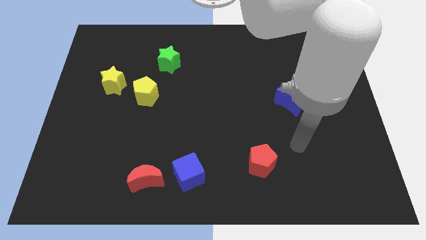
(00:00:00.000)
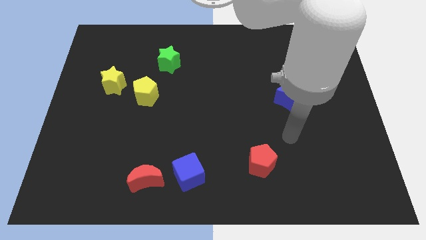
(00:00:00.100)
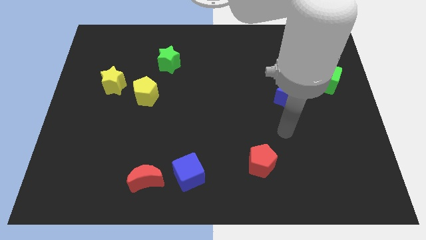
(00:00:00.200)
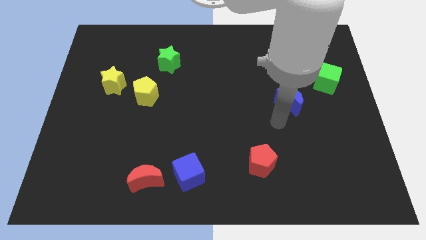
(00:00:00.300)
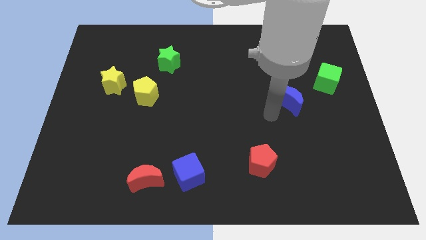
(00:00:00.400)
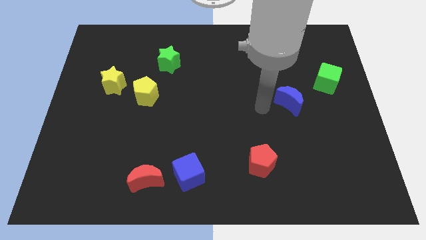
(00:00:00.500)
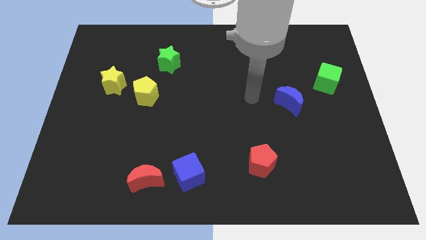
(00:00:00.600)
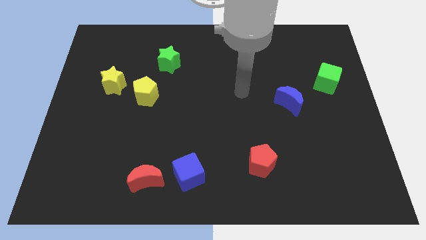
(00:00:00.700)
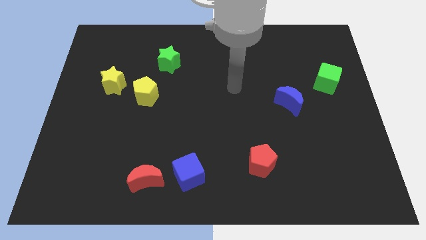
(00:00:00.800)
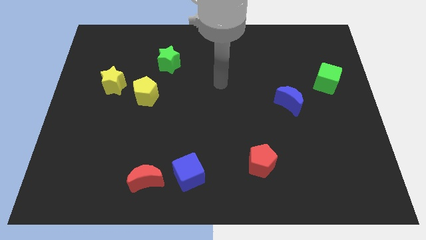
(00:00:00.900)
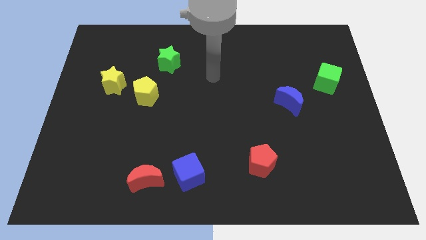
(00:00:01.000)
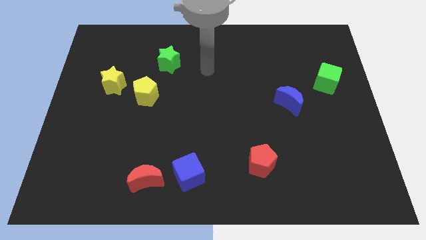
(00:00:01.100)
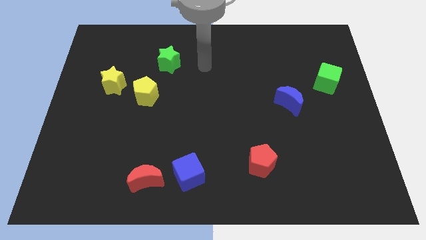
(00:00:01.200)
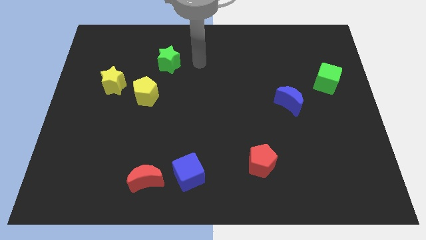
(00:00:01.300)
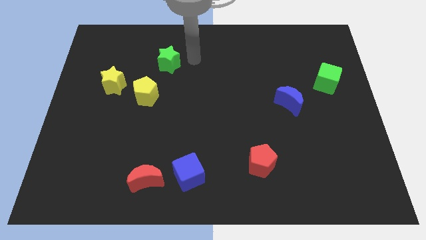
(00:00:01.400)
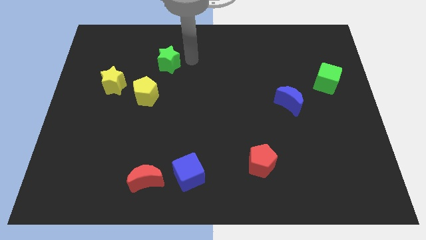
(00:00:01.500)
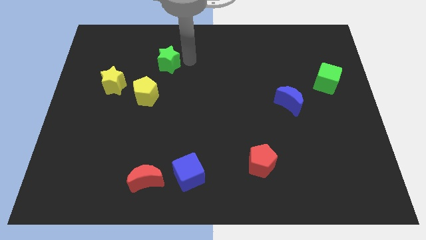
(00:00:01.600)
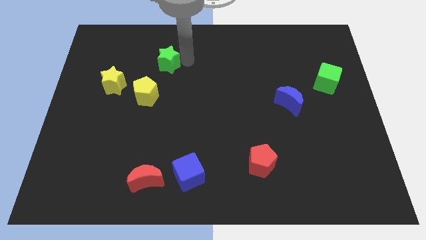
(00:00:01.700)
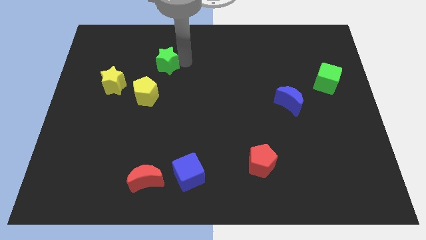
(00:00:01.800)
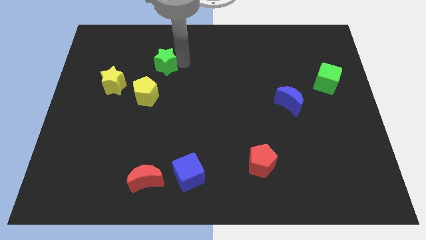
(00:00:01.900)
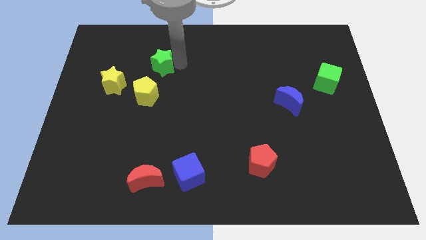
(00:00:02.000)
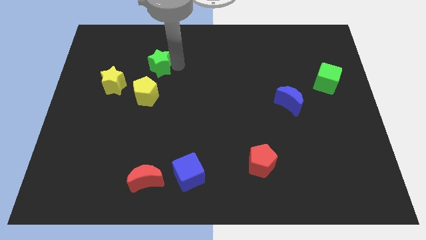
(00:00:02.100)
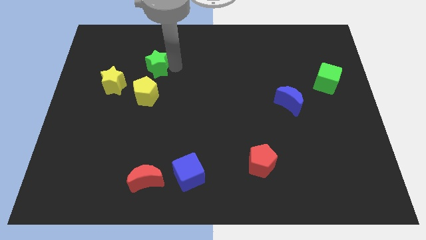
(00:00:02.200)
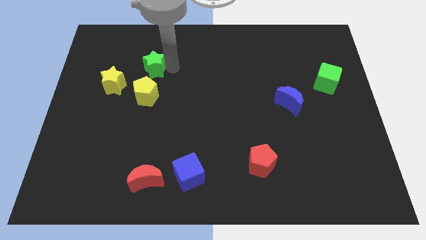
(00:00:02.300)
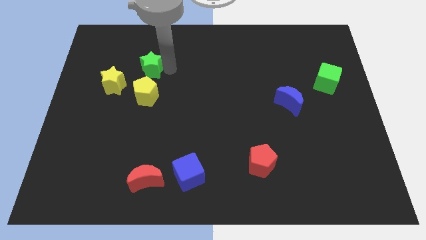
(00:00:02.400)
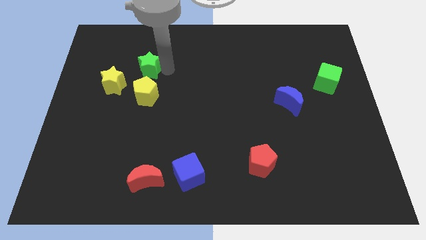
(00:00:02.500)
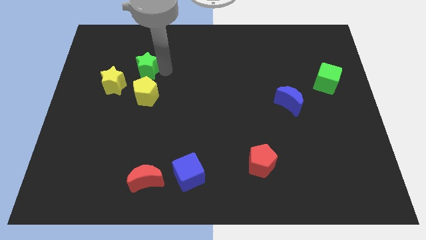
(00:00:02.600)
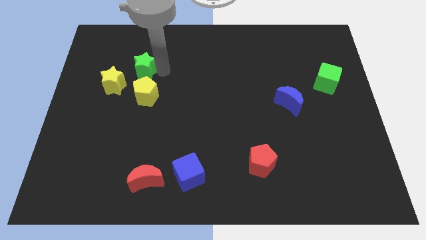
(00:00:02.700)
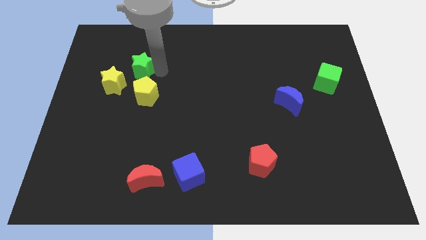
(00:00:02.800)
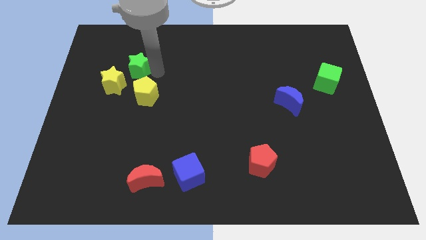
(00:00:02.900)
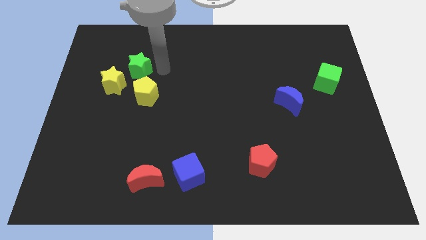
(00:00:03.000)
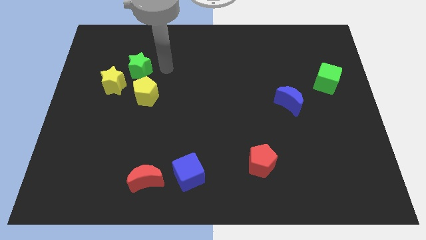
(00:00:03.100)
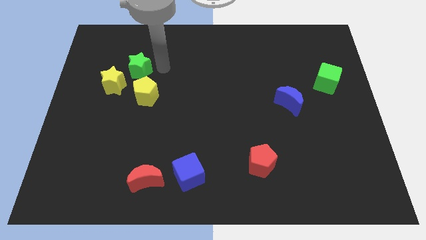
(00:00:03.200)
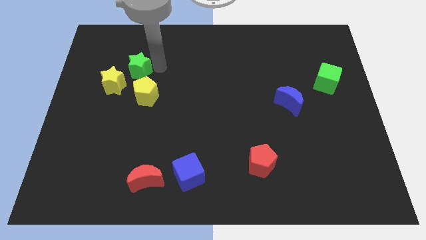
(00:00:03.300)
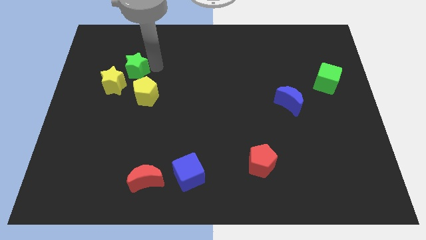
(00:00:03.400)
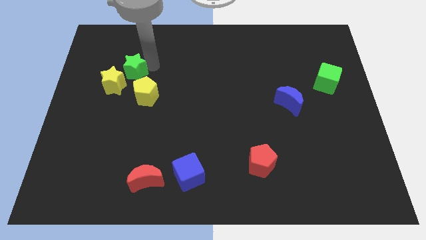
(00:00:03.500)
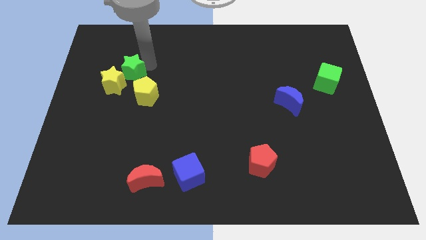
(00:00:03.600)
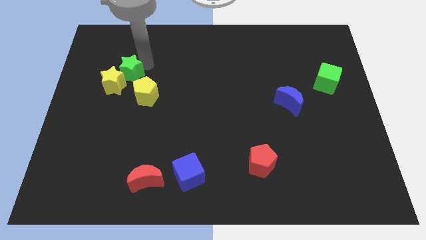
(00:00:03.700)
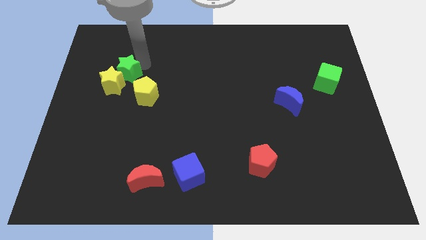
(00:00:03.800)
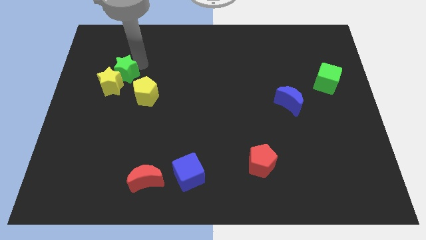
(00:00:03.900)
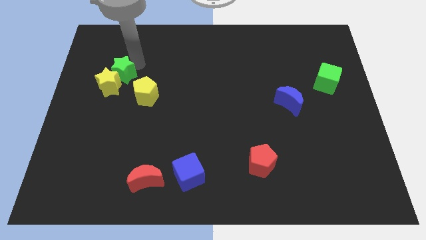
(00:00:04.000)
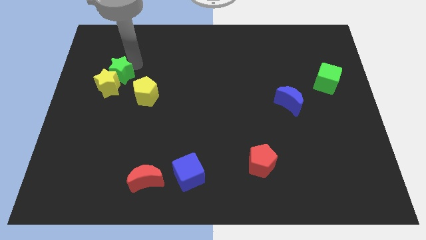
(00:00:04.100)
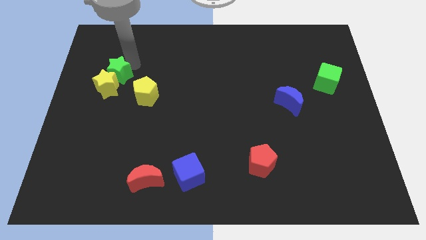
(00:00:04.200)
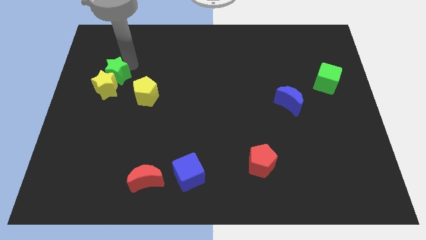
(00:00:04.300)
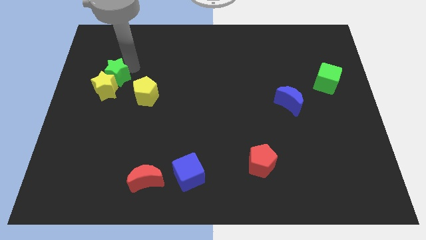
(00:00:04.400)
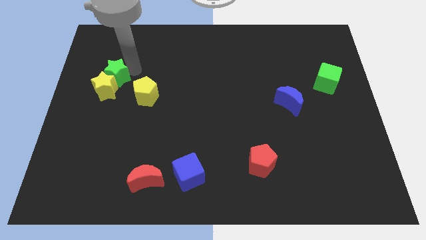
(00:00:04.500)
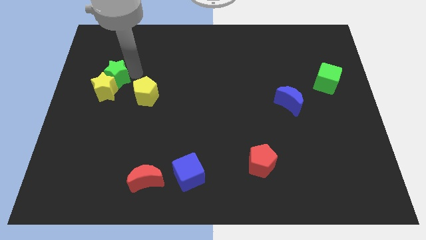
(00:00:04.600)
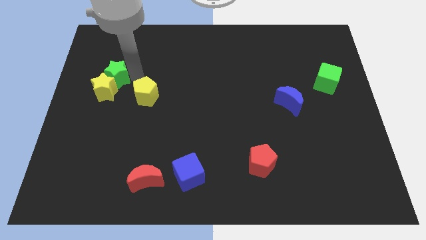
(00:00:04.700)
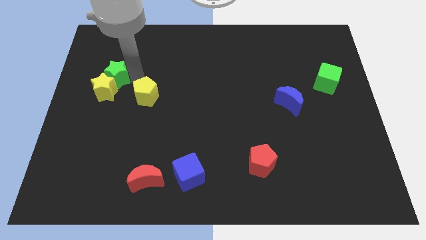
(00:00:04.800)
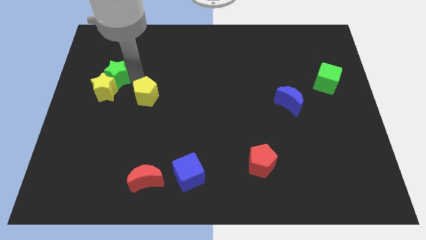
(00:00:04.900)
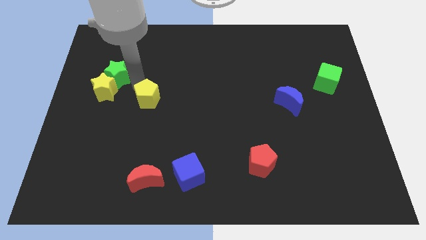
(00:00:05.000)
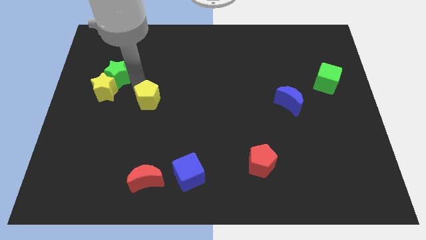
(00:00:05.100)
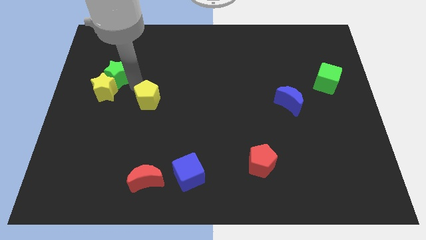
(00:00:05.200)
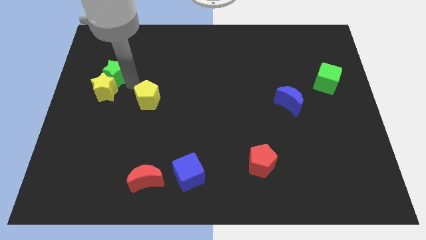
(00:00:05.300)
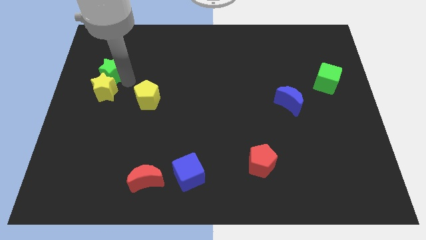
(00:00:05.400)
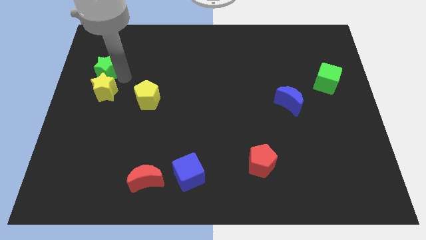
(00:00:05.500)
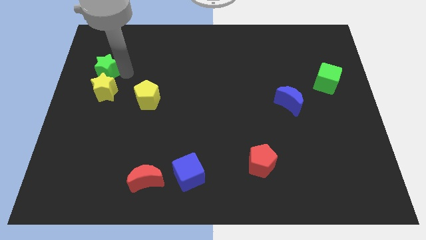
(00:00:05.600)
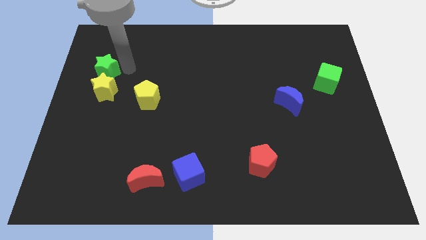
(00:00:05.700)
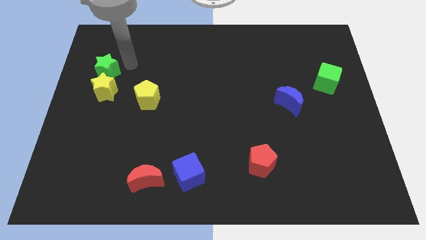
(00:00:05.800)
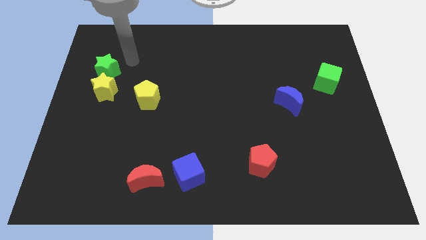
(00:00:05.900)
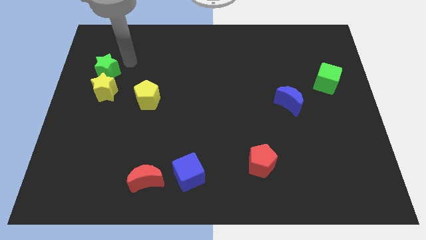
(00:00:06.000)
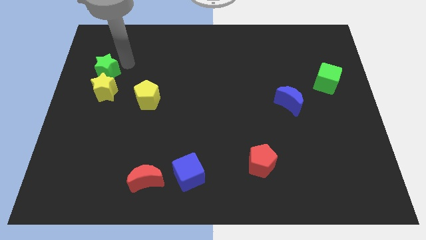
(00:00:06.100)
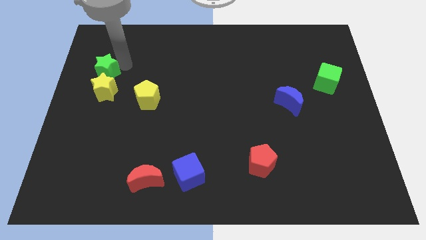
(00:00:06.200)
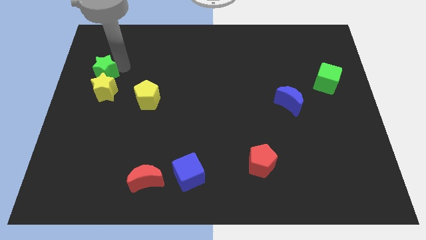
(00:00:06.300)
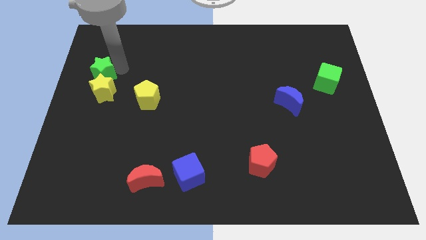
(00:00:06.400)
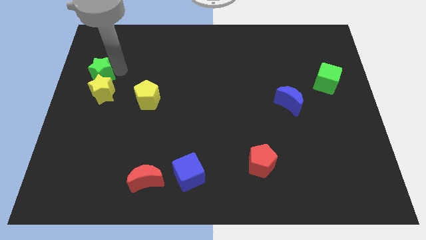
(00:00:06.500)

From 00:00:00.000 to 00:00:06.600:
slide the green star to the center left

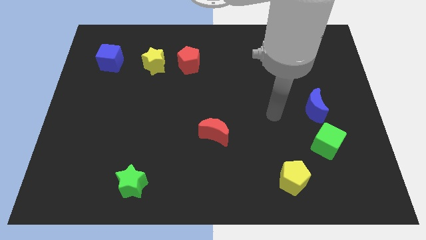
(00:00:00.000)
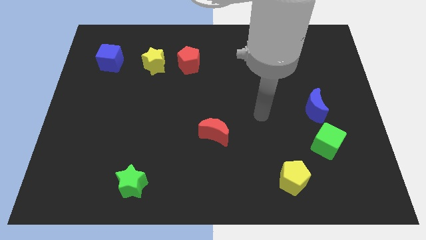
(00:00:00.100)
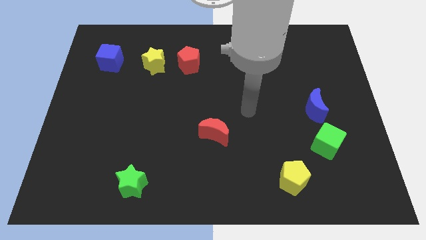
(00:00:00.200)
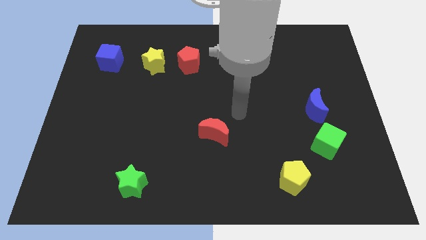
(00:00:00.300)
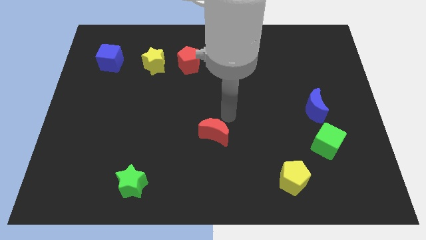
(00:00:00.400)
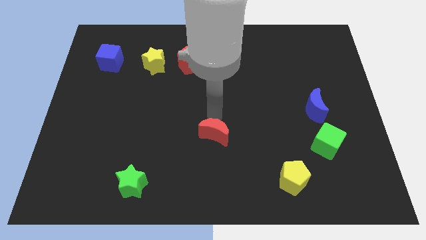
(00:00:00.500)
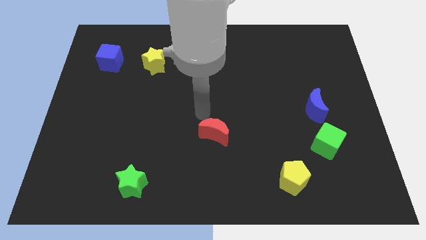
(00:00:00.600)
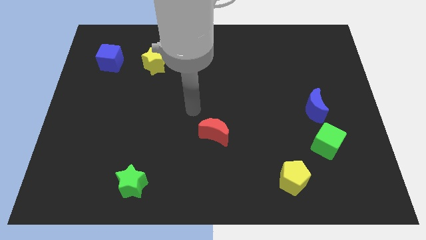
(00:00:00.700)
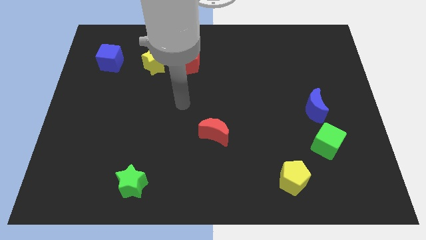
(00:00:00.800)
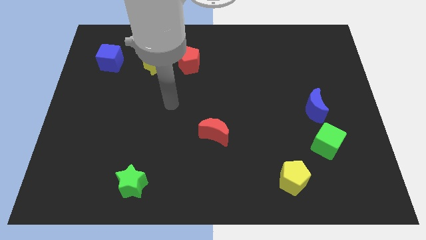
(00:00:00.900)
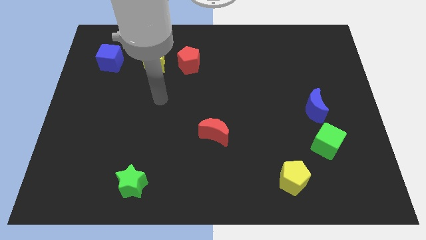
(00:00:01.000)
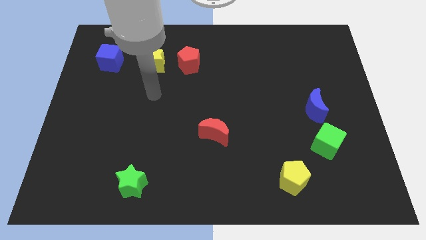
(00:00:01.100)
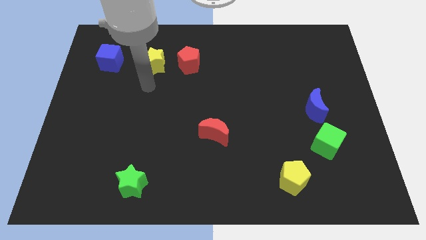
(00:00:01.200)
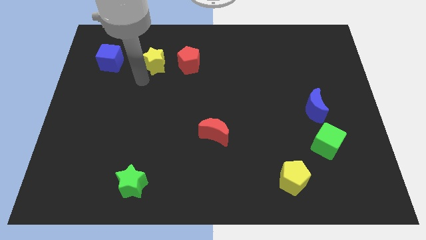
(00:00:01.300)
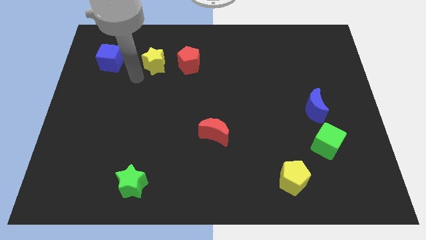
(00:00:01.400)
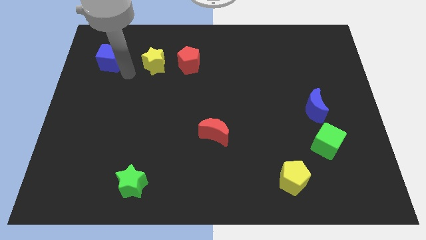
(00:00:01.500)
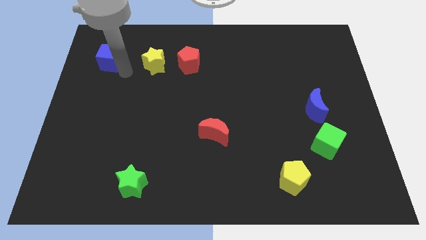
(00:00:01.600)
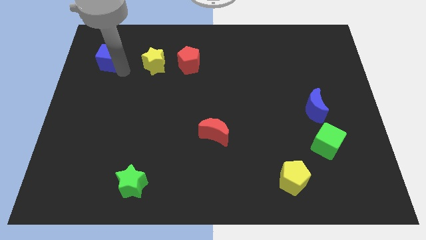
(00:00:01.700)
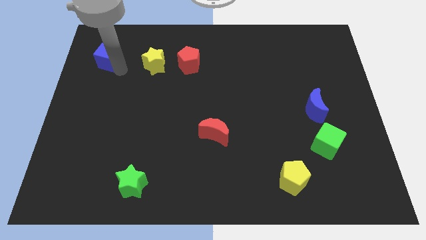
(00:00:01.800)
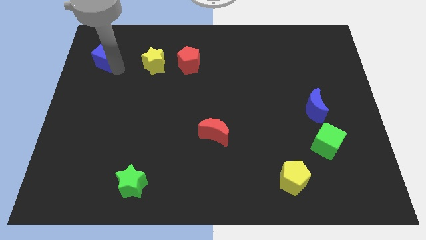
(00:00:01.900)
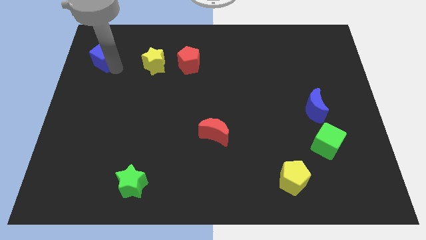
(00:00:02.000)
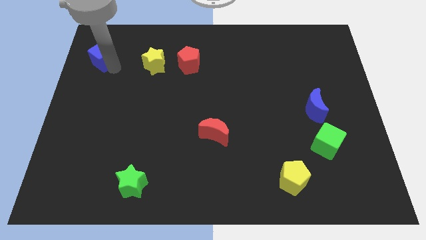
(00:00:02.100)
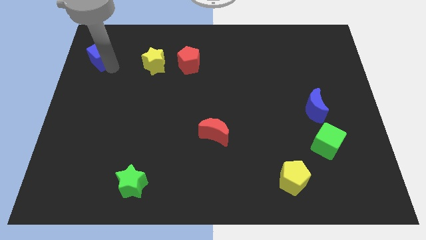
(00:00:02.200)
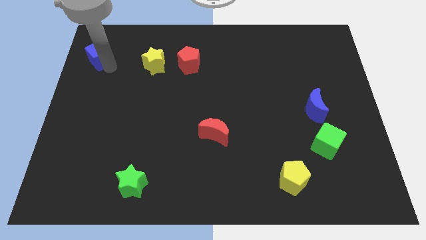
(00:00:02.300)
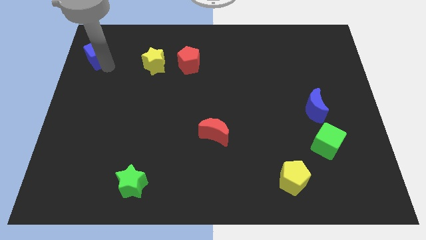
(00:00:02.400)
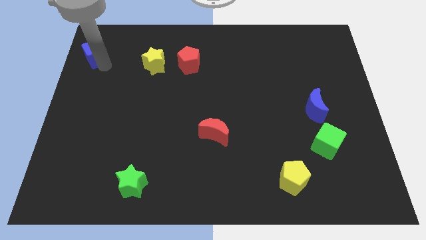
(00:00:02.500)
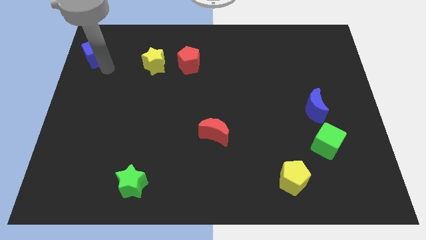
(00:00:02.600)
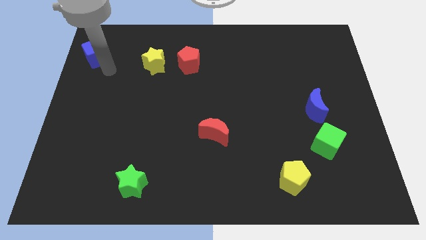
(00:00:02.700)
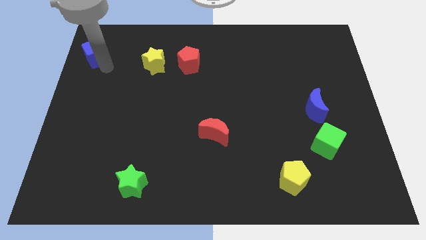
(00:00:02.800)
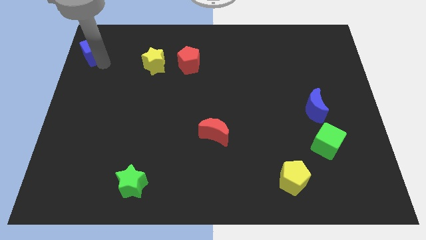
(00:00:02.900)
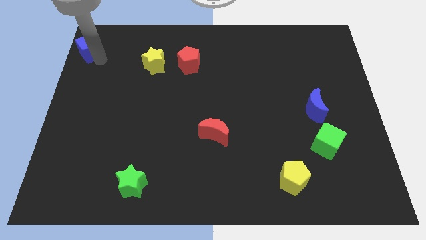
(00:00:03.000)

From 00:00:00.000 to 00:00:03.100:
move the blue cube to the top left corner
